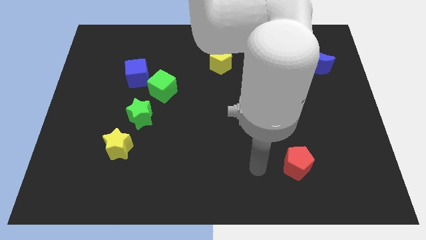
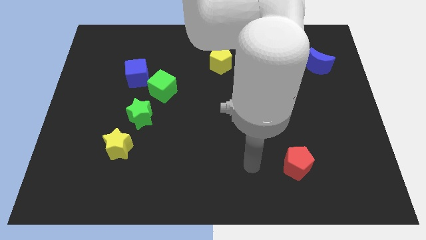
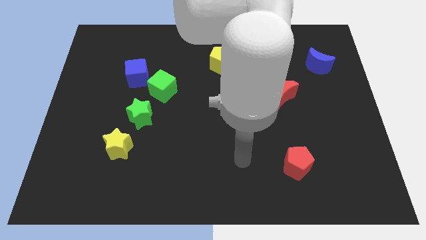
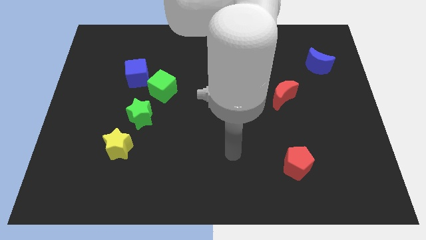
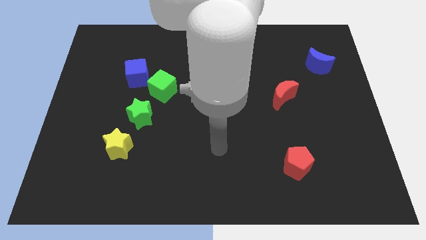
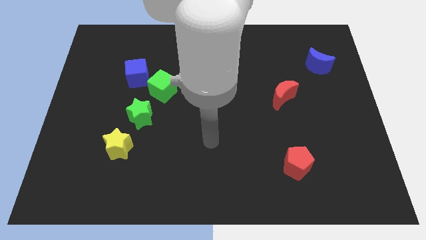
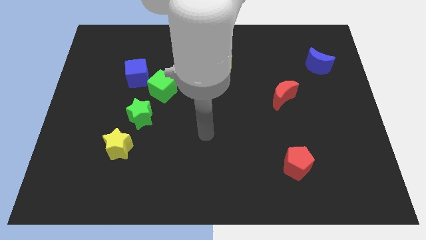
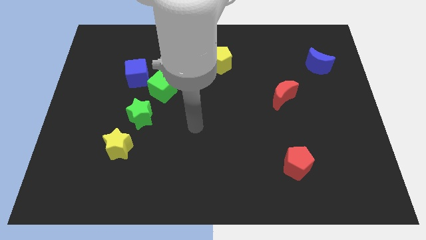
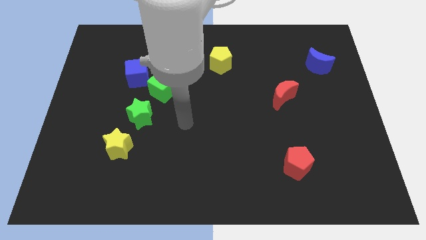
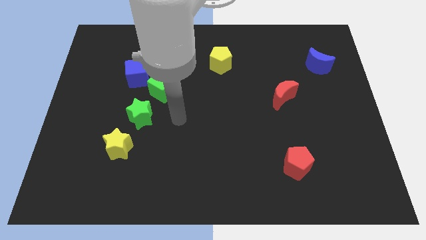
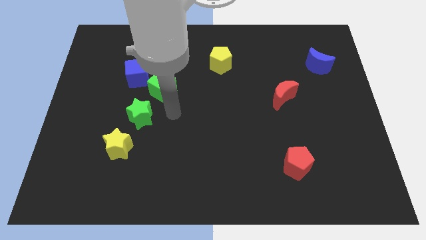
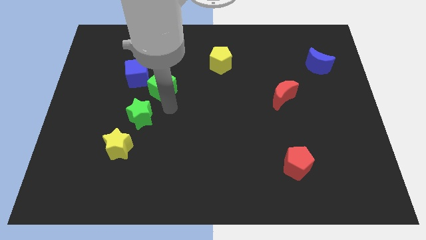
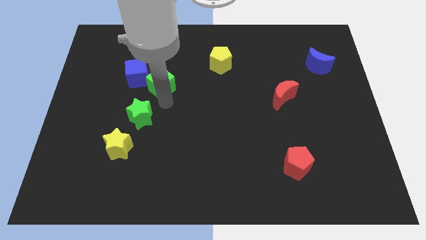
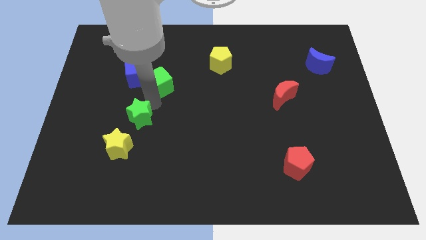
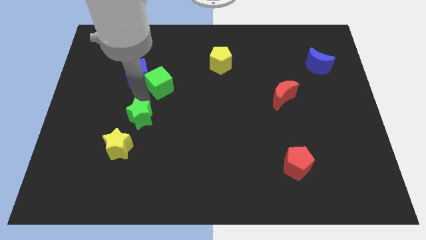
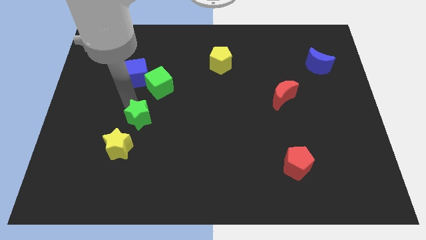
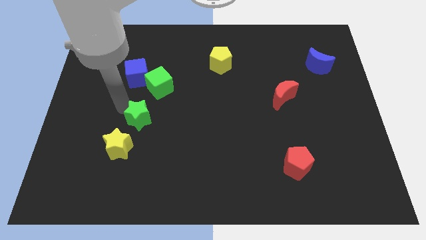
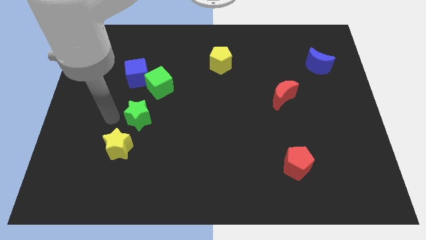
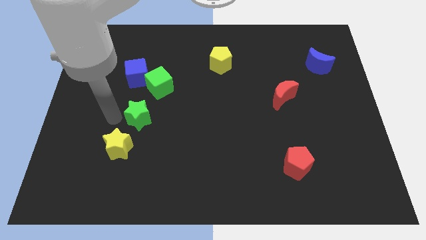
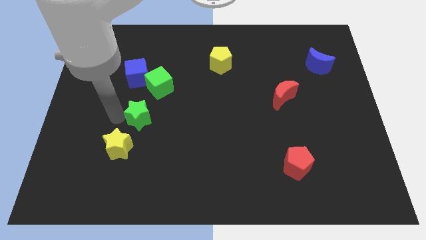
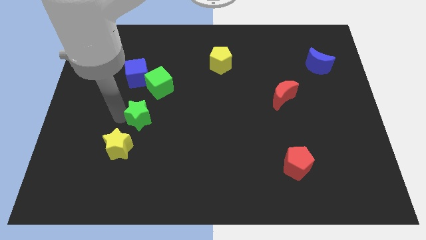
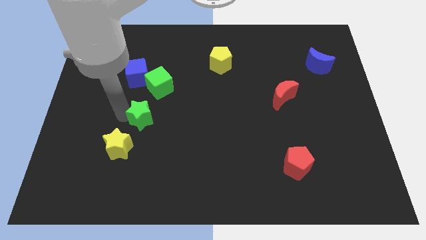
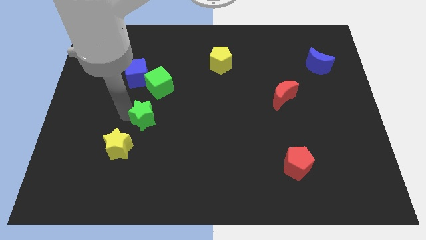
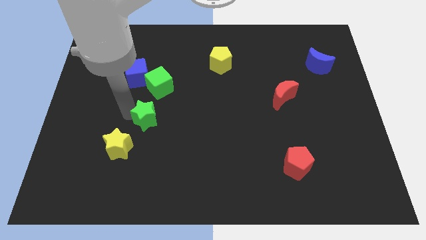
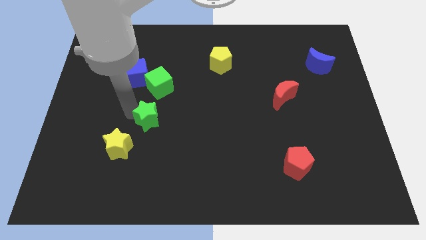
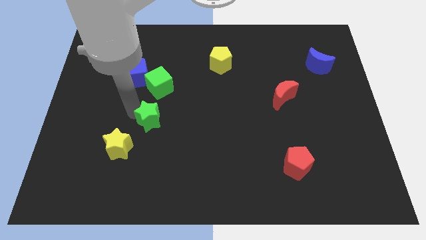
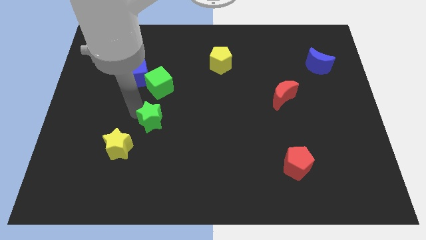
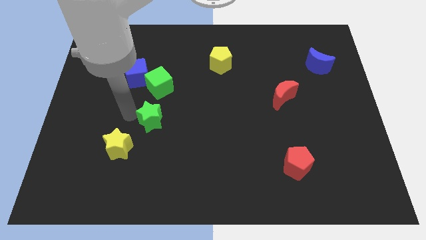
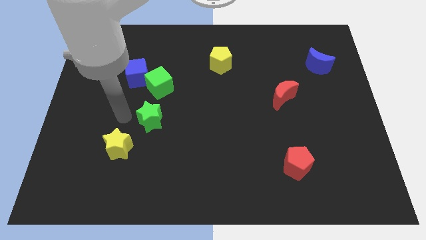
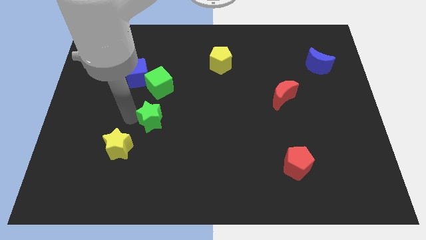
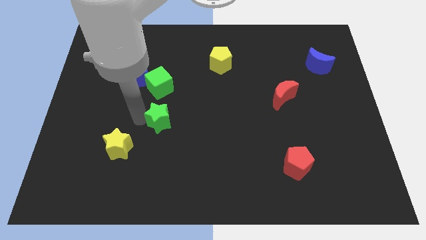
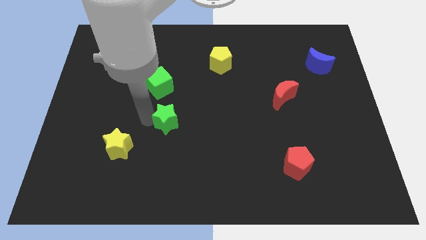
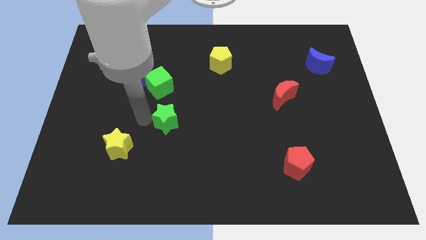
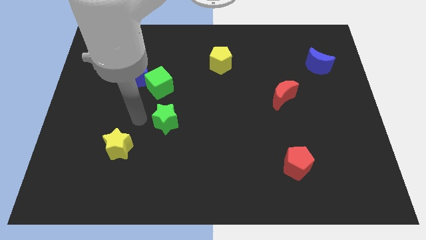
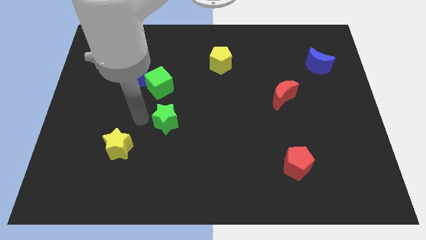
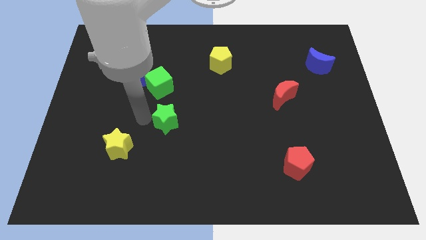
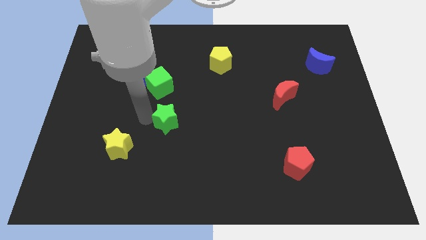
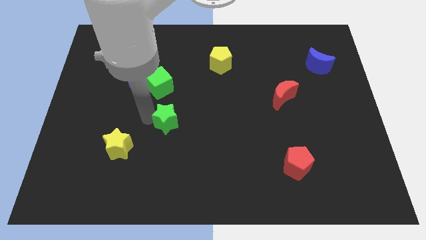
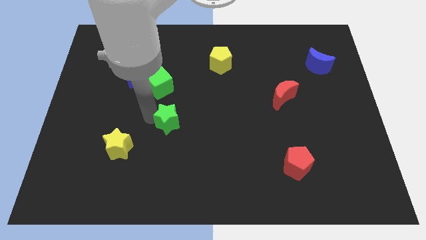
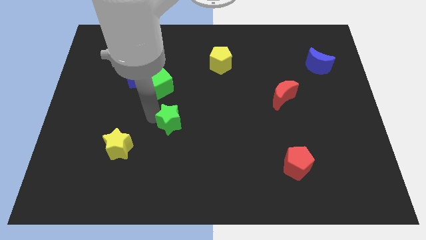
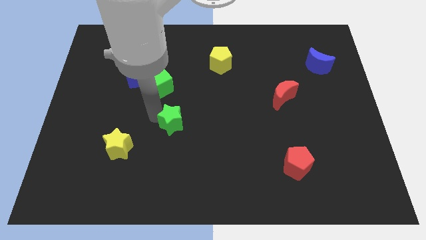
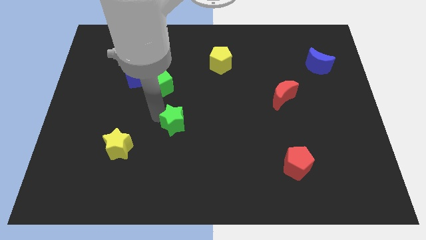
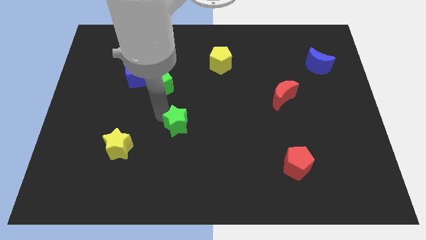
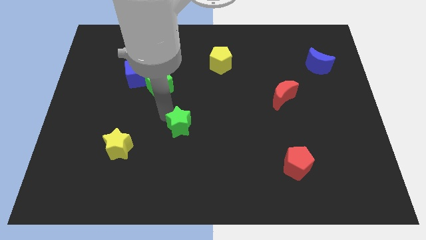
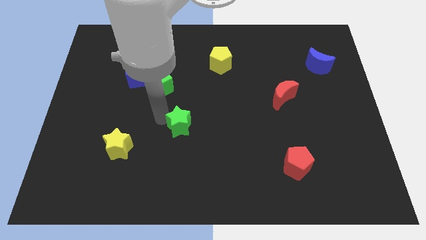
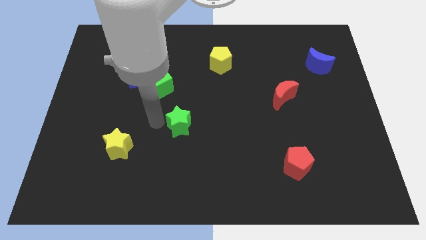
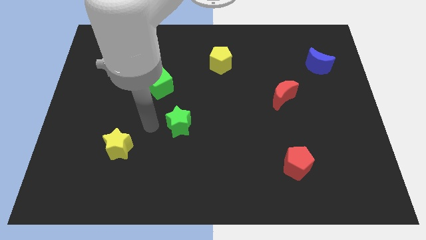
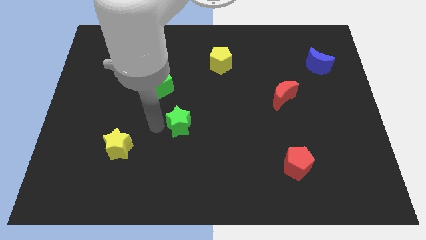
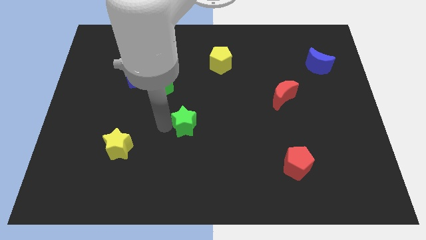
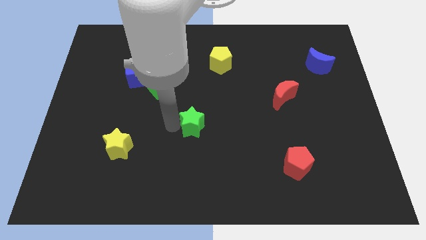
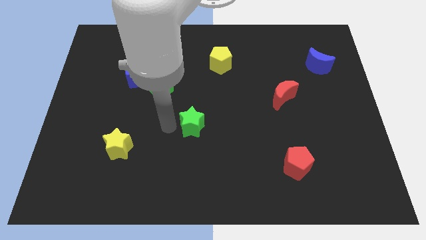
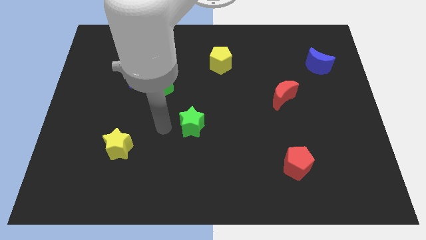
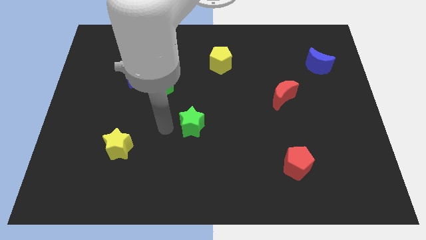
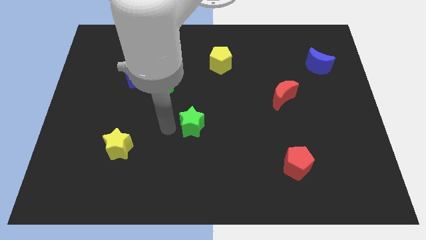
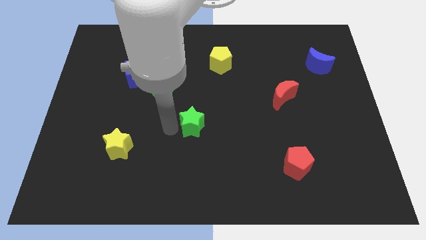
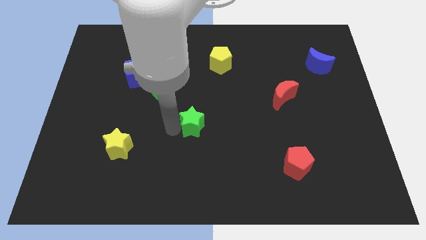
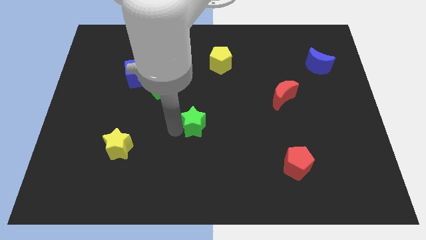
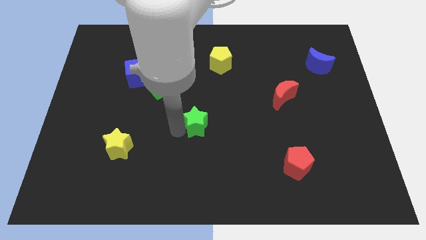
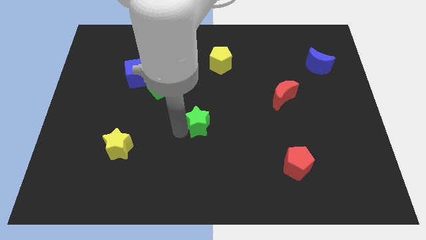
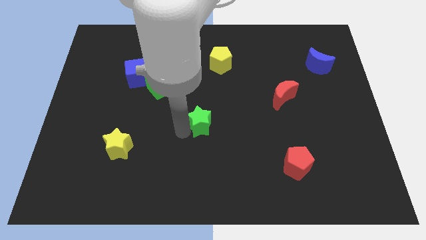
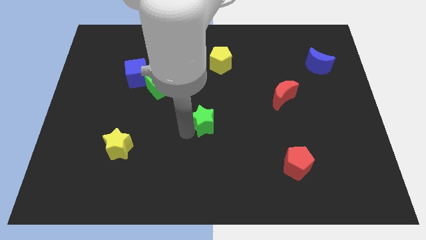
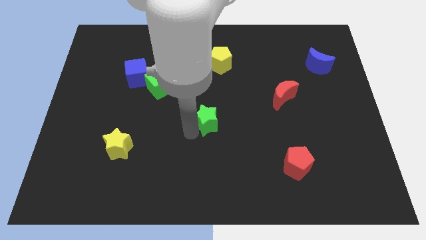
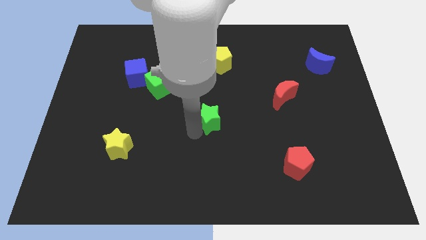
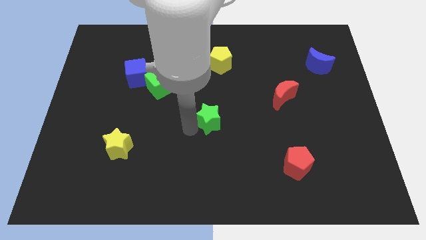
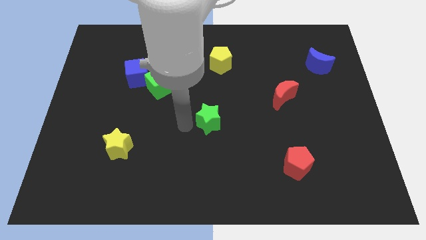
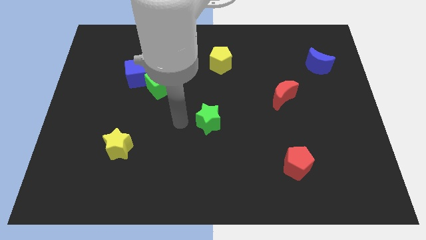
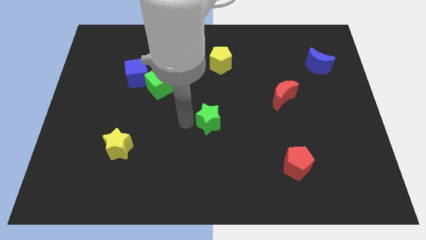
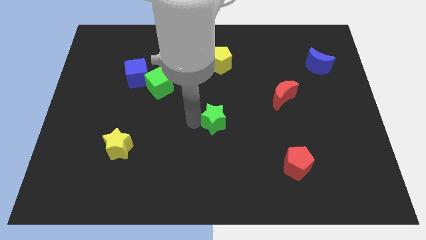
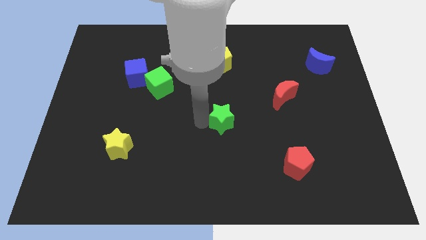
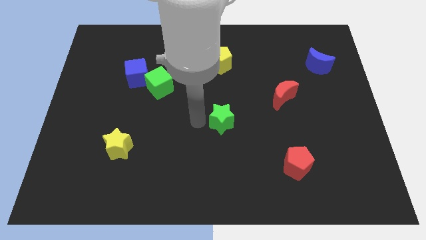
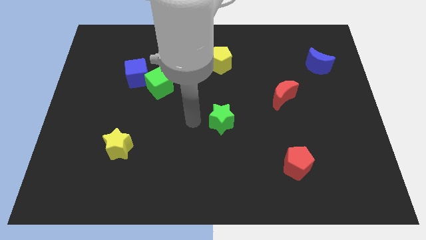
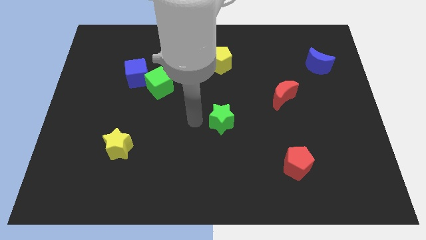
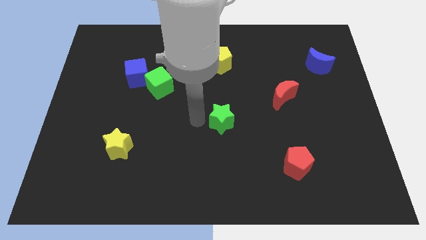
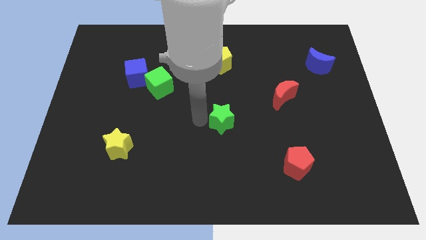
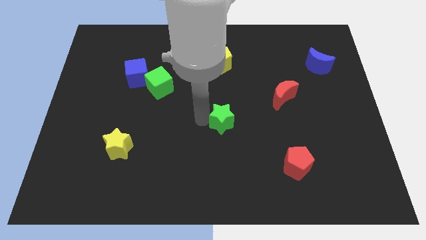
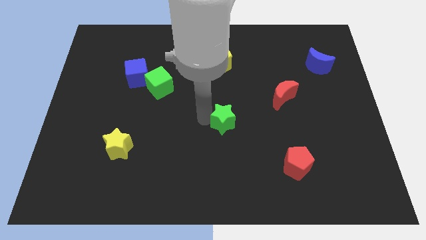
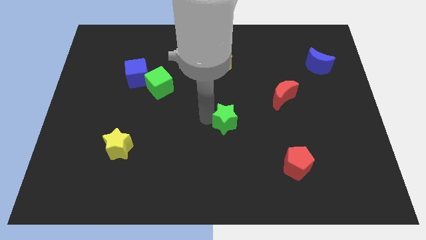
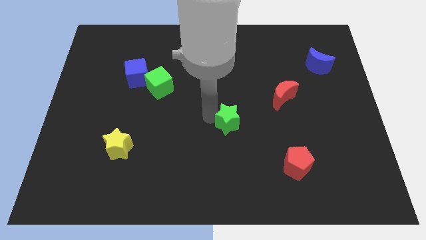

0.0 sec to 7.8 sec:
move the green star to the right

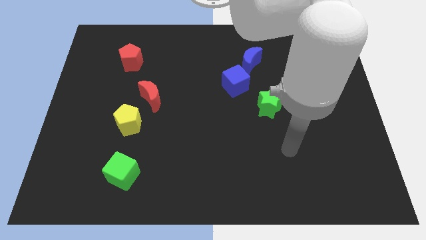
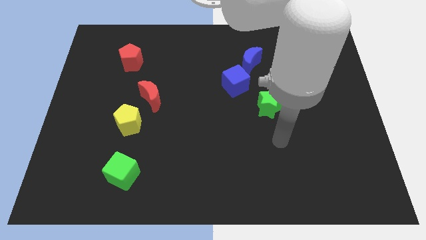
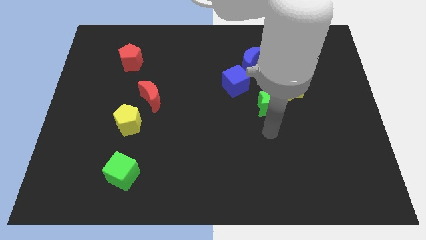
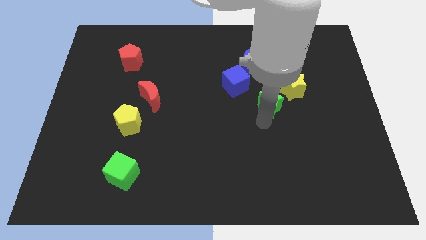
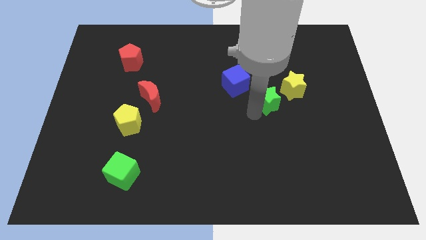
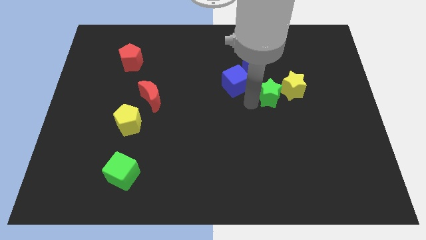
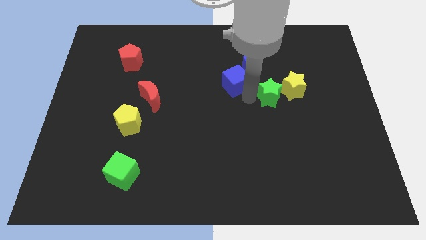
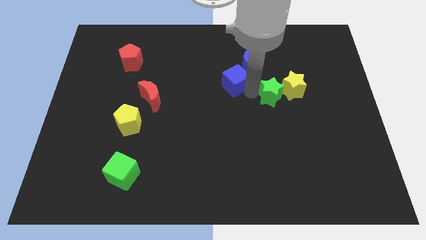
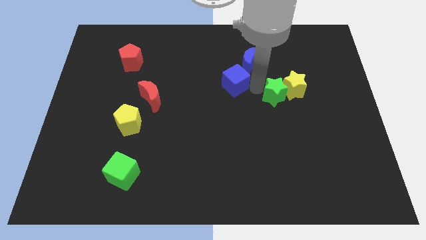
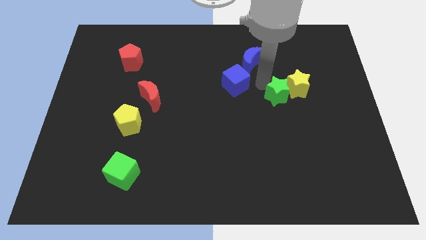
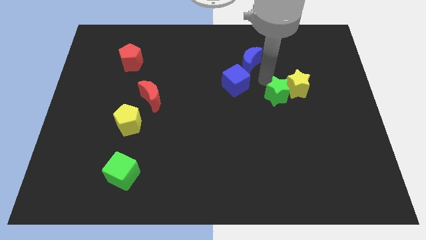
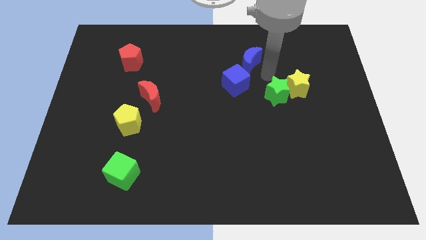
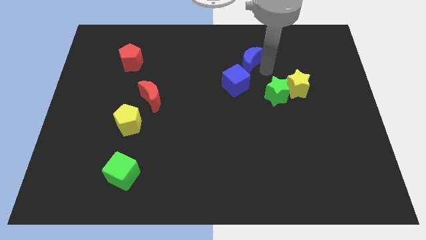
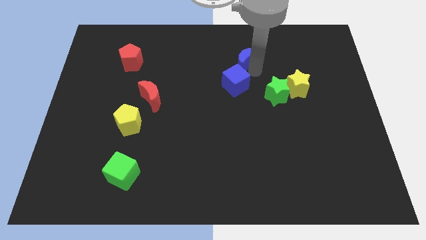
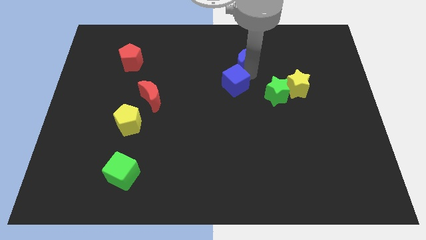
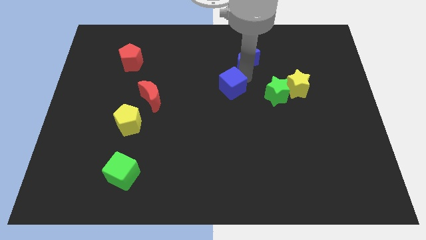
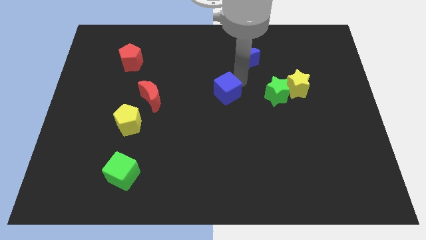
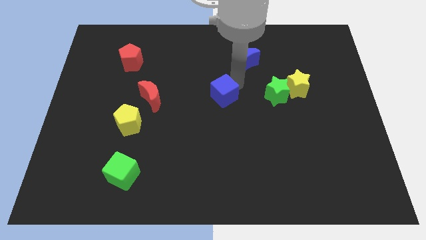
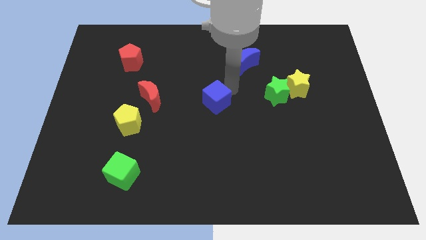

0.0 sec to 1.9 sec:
move the blue cube down and to the left somewhat
